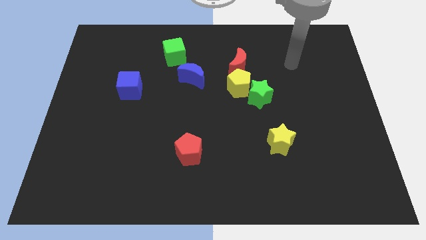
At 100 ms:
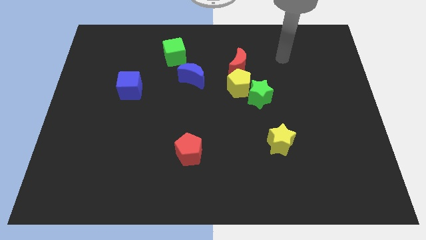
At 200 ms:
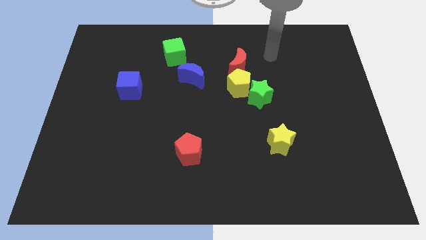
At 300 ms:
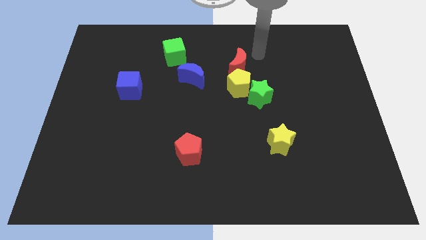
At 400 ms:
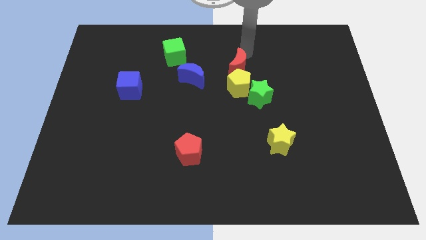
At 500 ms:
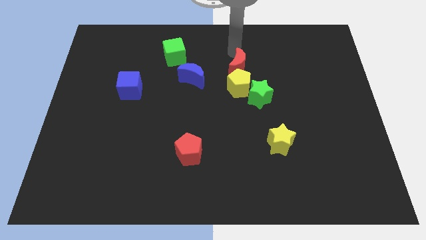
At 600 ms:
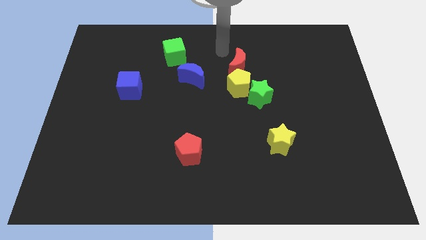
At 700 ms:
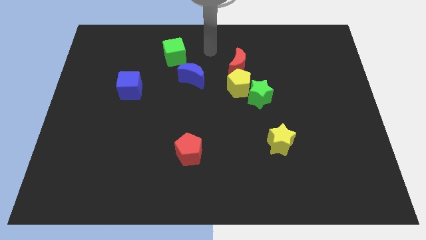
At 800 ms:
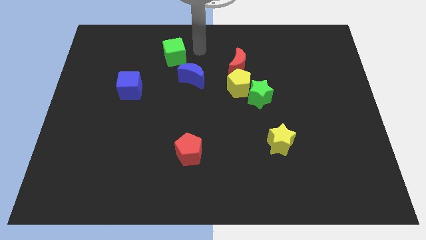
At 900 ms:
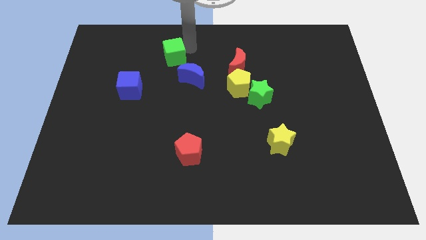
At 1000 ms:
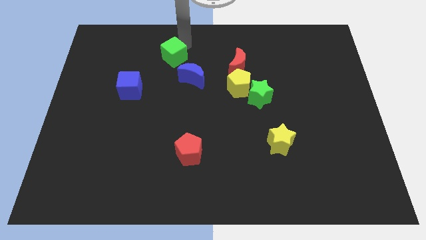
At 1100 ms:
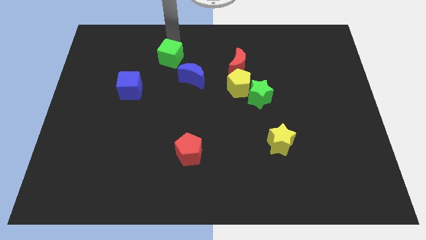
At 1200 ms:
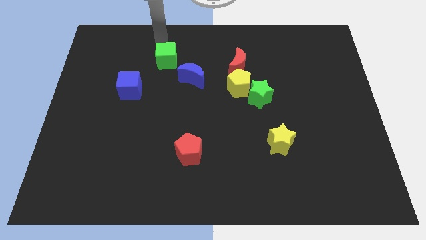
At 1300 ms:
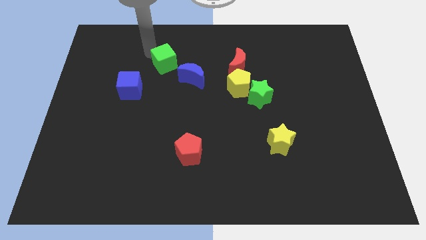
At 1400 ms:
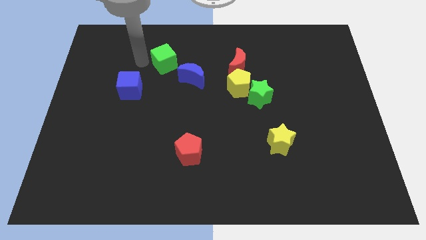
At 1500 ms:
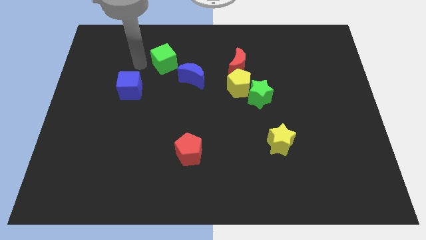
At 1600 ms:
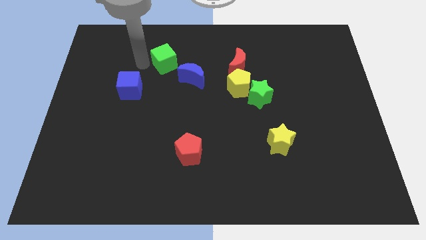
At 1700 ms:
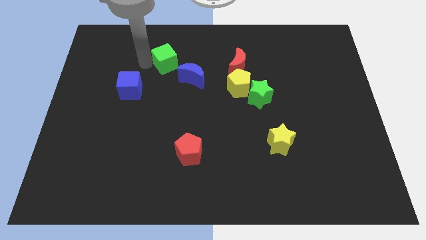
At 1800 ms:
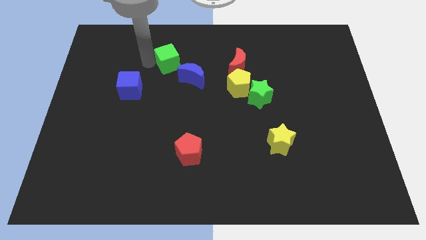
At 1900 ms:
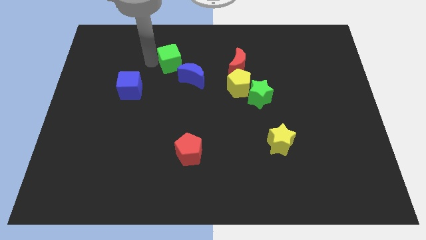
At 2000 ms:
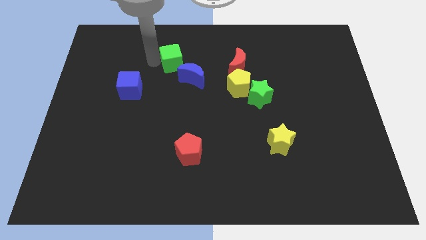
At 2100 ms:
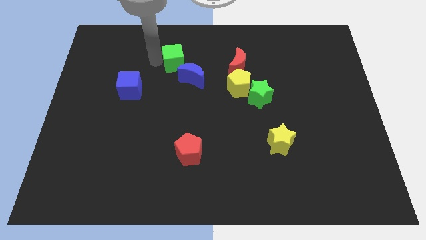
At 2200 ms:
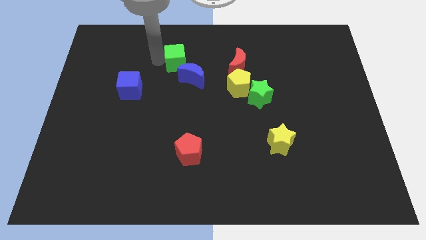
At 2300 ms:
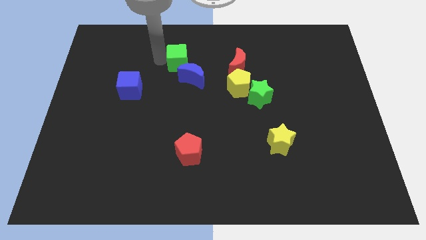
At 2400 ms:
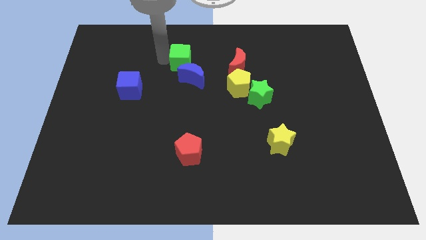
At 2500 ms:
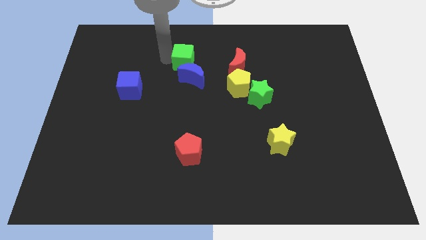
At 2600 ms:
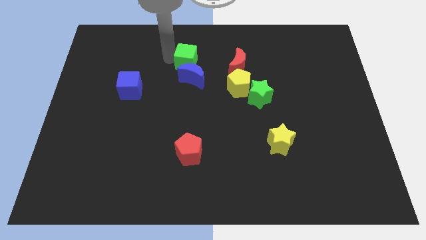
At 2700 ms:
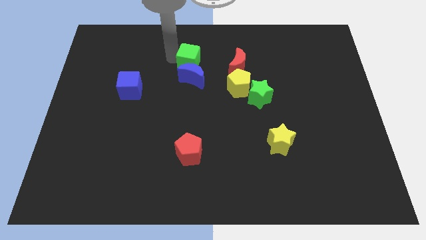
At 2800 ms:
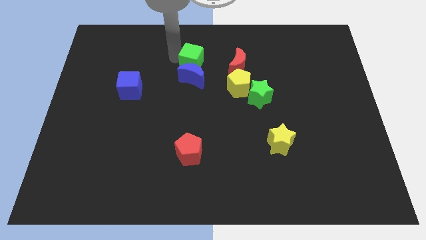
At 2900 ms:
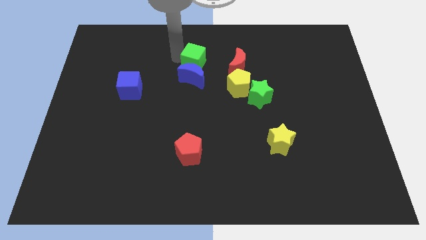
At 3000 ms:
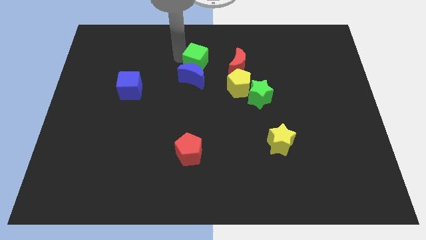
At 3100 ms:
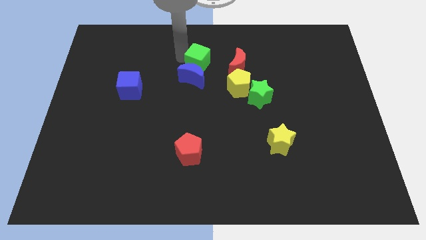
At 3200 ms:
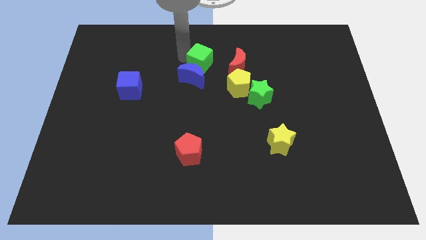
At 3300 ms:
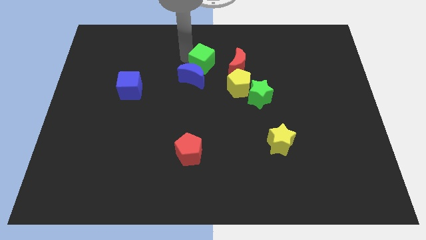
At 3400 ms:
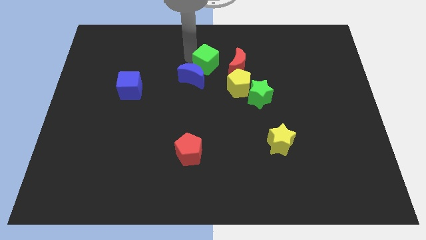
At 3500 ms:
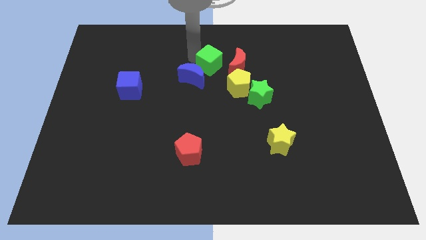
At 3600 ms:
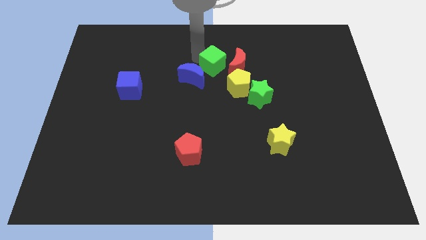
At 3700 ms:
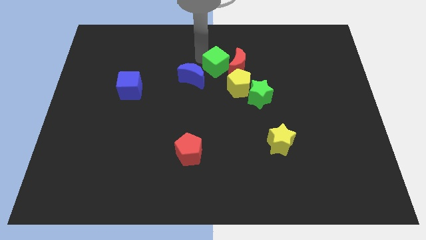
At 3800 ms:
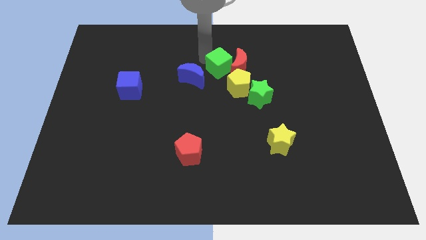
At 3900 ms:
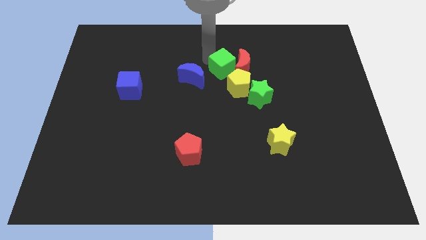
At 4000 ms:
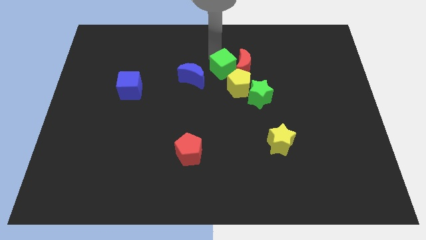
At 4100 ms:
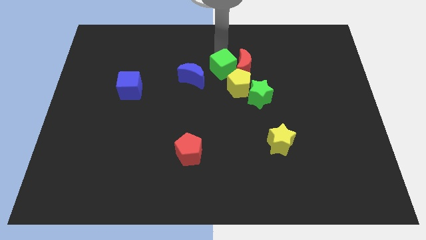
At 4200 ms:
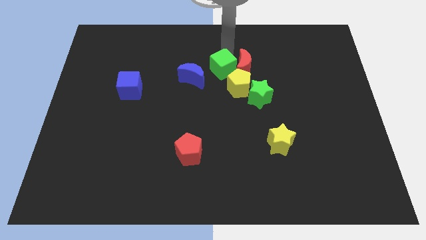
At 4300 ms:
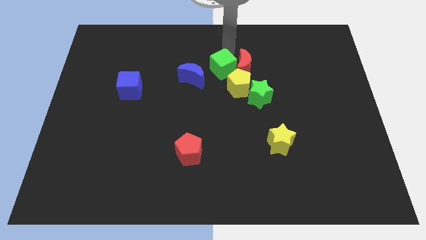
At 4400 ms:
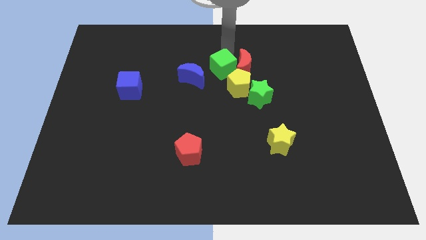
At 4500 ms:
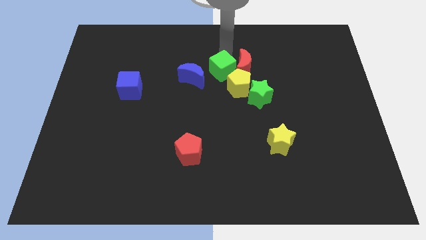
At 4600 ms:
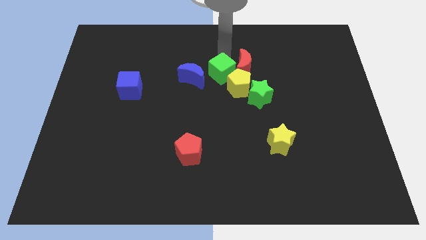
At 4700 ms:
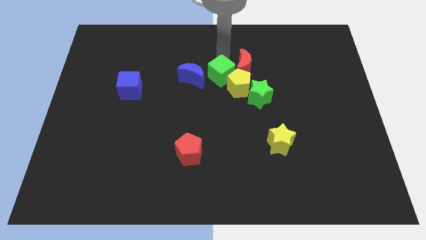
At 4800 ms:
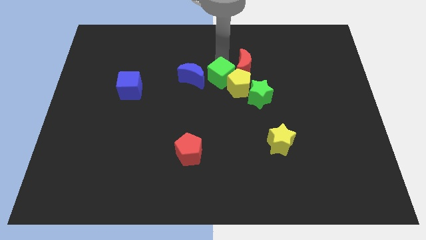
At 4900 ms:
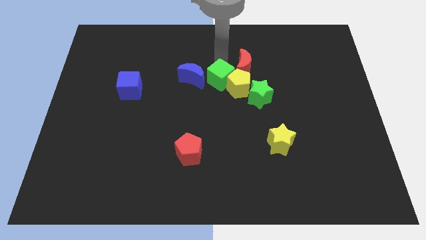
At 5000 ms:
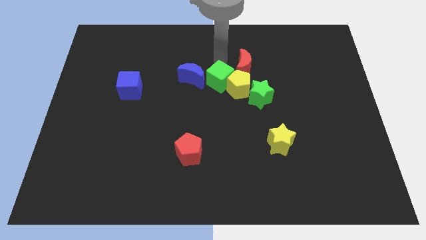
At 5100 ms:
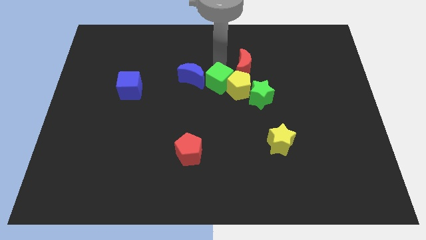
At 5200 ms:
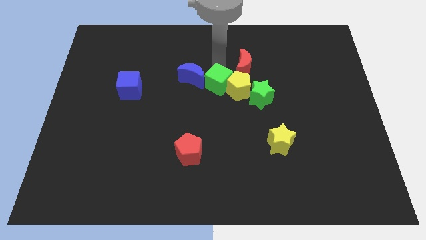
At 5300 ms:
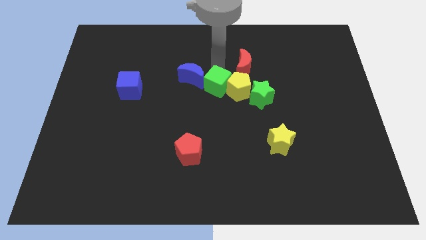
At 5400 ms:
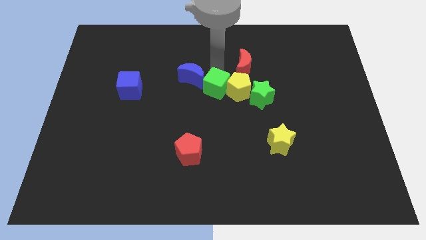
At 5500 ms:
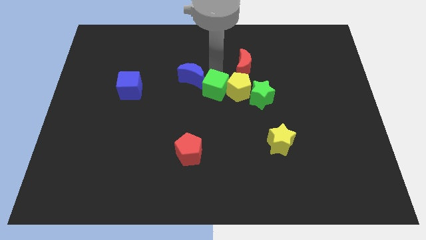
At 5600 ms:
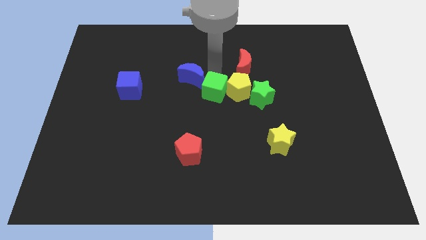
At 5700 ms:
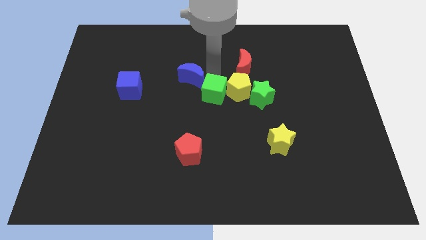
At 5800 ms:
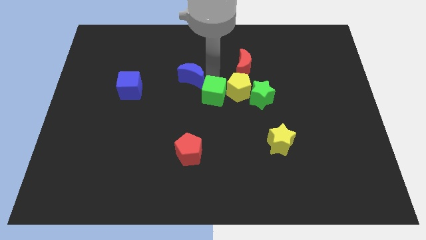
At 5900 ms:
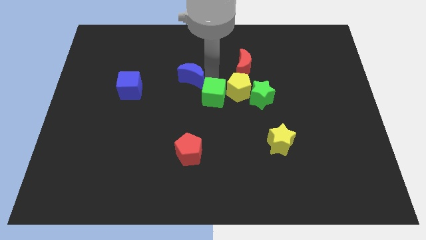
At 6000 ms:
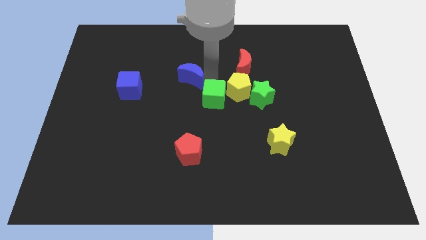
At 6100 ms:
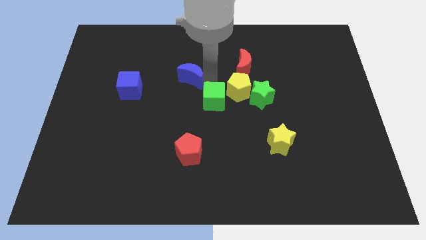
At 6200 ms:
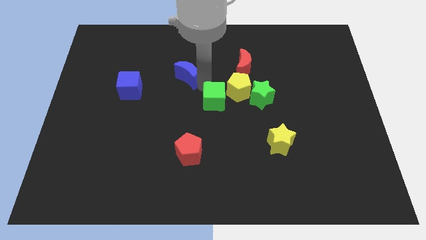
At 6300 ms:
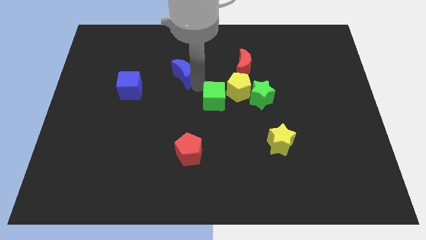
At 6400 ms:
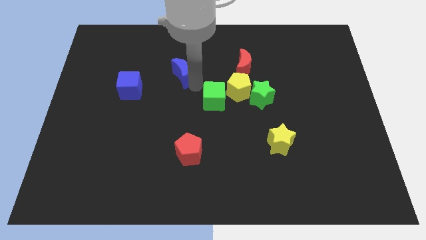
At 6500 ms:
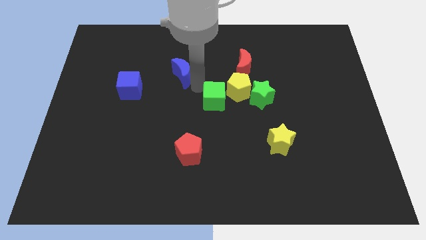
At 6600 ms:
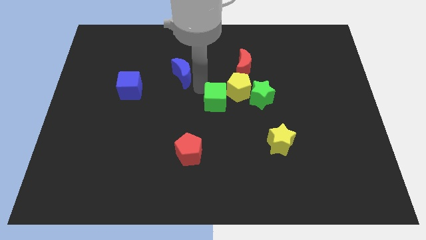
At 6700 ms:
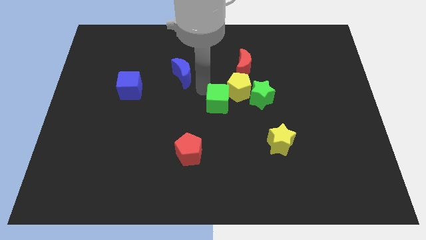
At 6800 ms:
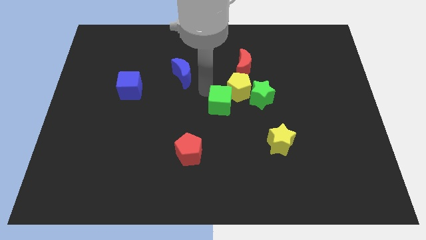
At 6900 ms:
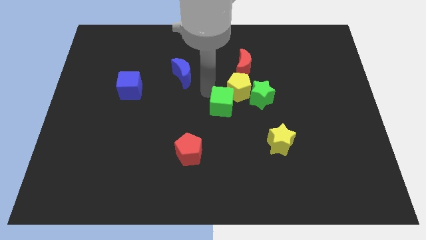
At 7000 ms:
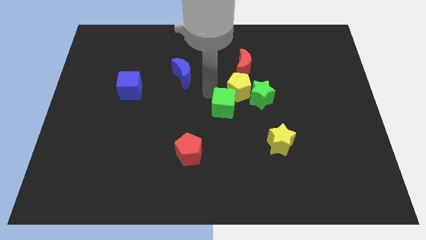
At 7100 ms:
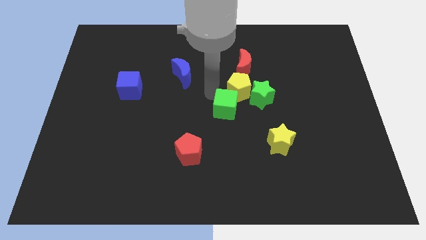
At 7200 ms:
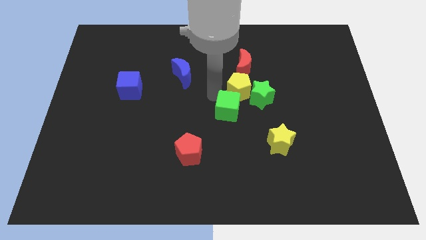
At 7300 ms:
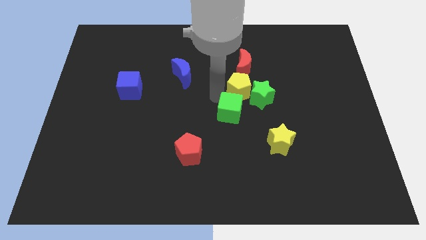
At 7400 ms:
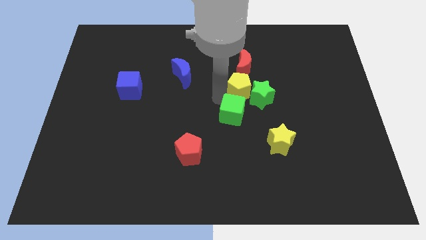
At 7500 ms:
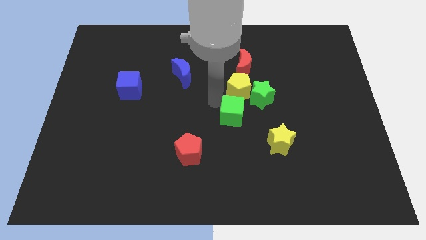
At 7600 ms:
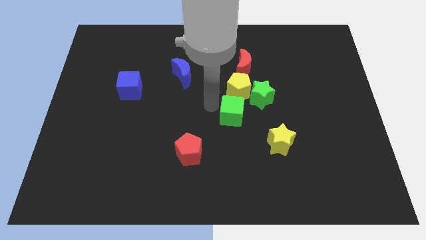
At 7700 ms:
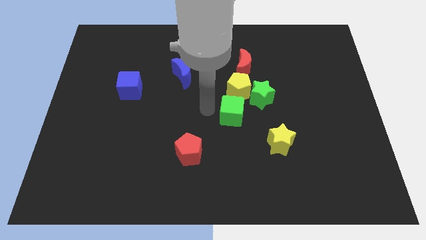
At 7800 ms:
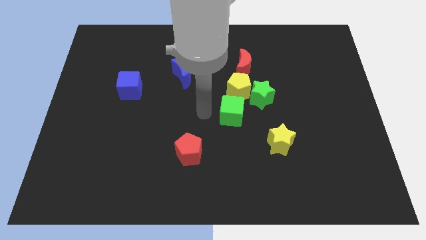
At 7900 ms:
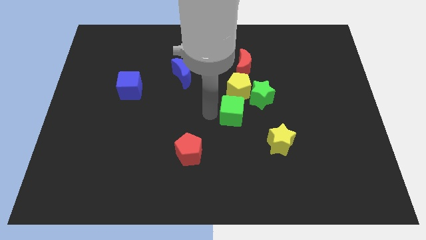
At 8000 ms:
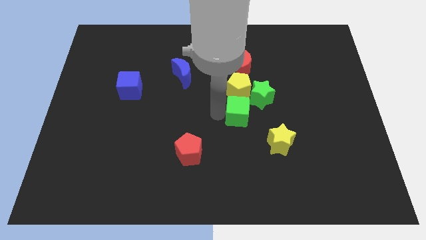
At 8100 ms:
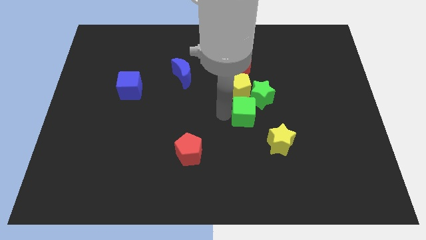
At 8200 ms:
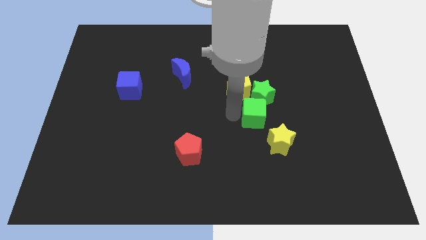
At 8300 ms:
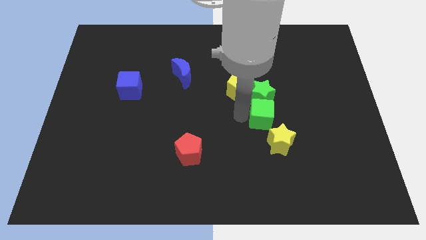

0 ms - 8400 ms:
push the green cube diagonally down and to the right of the green star

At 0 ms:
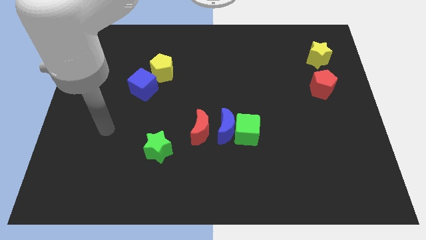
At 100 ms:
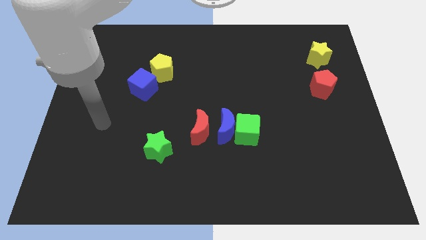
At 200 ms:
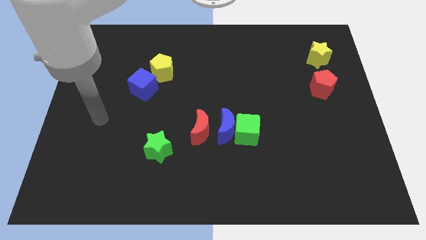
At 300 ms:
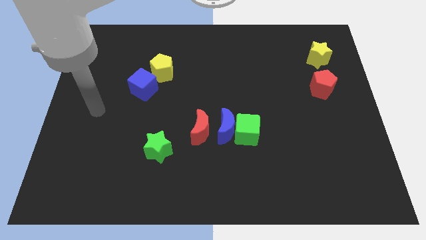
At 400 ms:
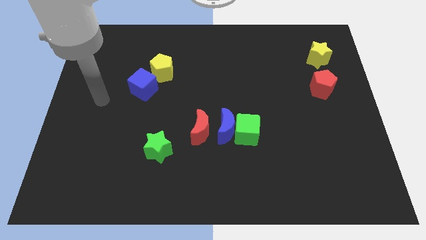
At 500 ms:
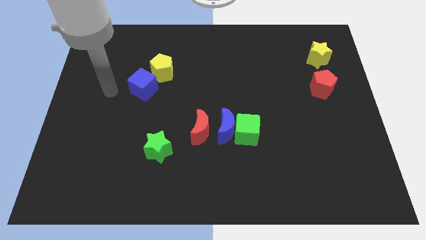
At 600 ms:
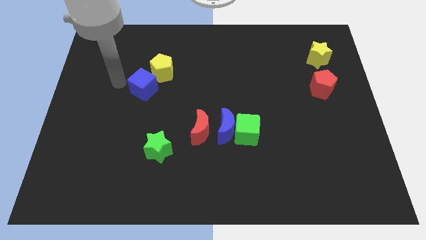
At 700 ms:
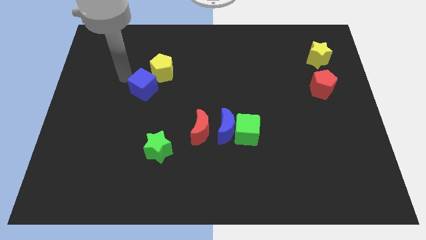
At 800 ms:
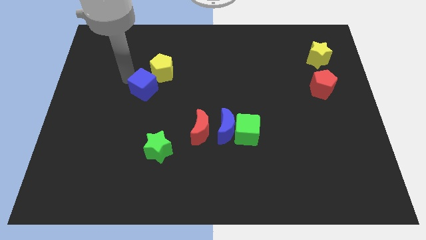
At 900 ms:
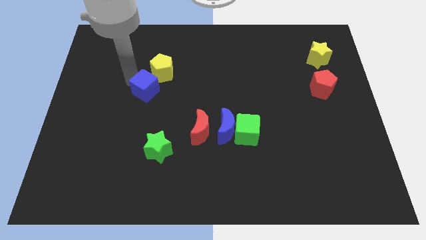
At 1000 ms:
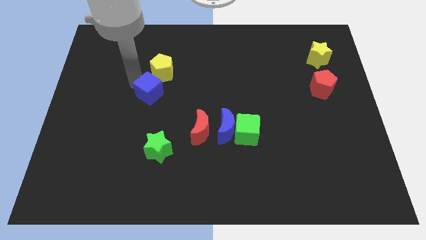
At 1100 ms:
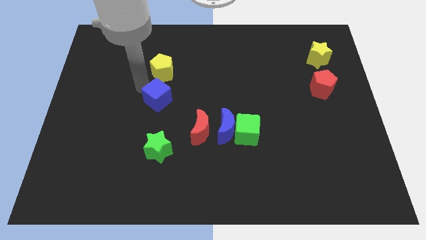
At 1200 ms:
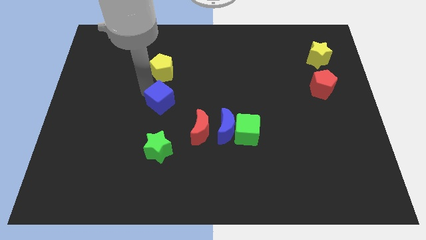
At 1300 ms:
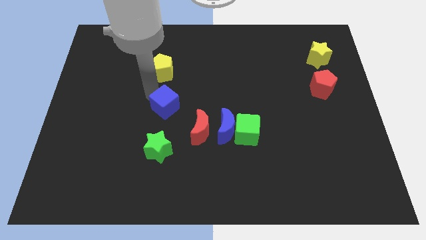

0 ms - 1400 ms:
move the blue cube diagonally up and to the left of the red moon
